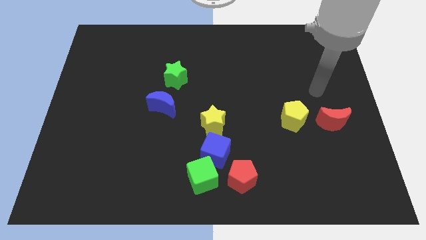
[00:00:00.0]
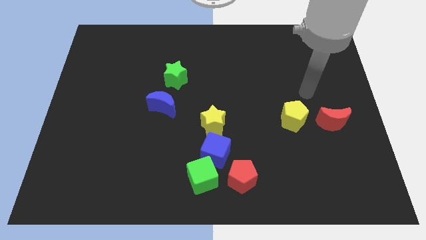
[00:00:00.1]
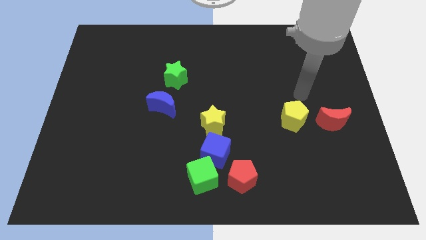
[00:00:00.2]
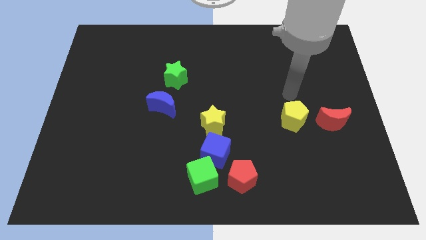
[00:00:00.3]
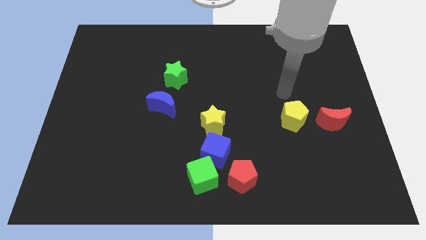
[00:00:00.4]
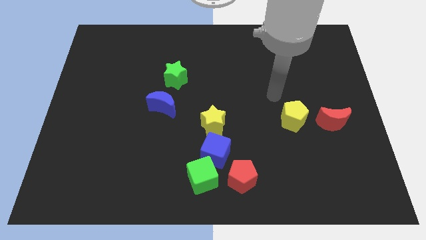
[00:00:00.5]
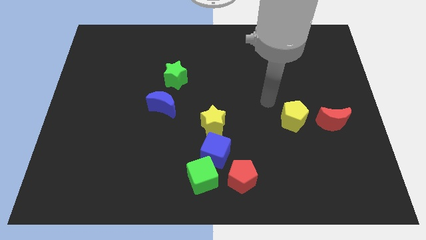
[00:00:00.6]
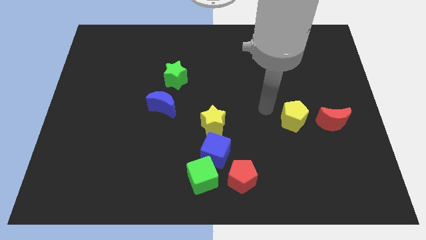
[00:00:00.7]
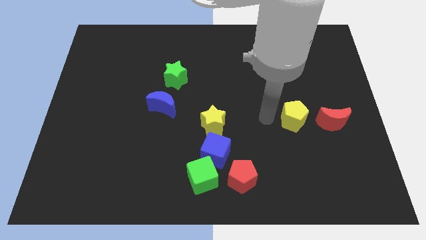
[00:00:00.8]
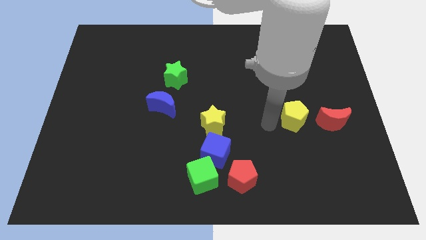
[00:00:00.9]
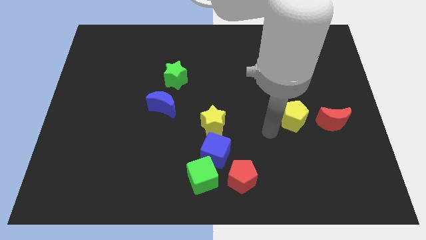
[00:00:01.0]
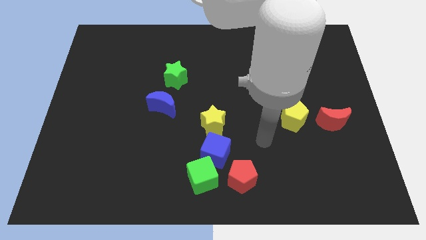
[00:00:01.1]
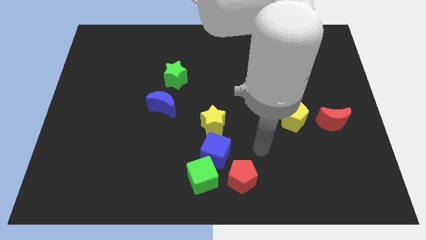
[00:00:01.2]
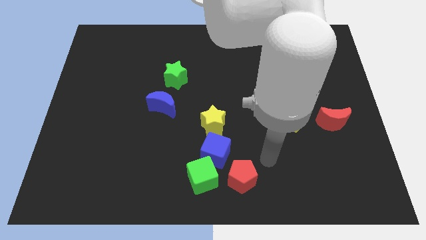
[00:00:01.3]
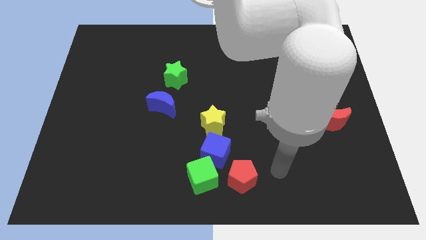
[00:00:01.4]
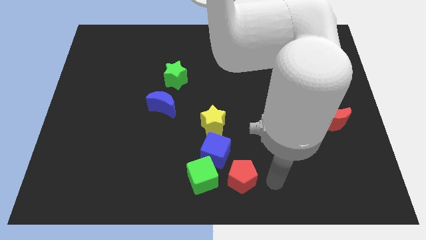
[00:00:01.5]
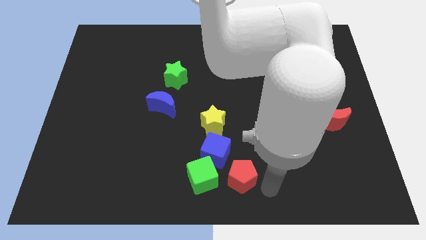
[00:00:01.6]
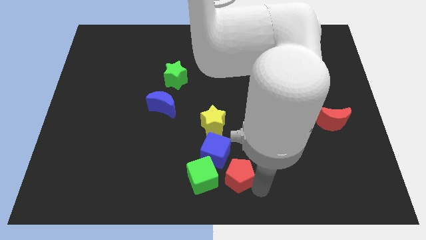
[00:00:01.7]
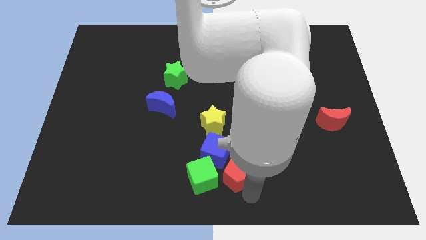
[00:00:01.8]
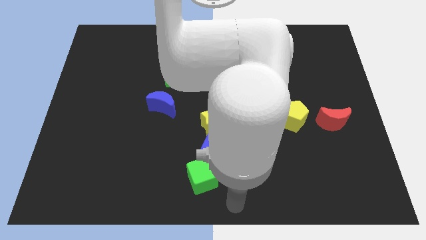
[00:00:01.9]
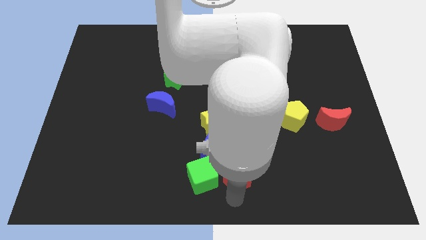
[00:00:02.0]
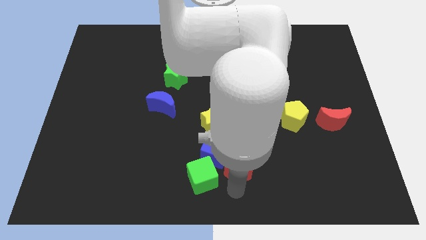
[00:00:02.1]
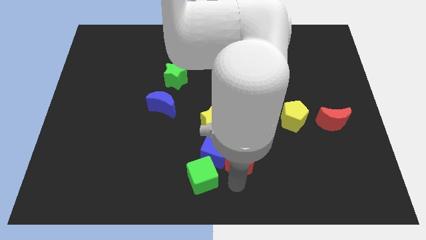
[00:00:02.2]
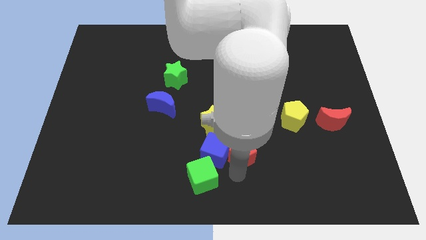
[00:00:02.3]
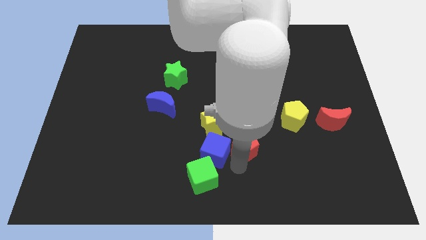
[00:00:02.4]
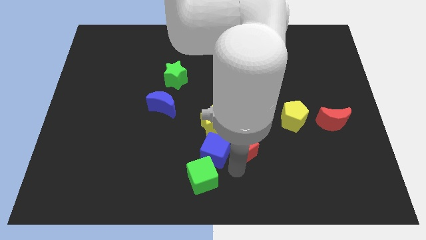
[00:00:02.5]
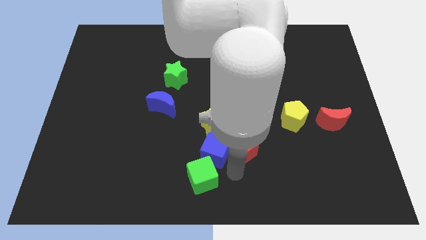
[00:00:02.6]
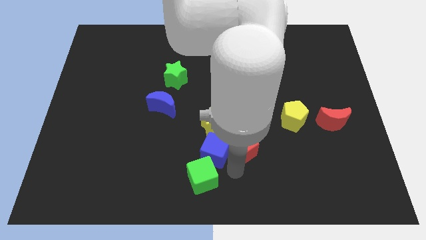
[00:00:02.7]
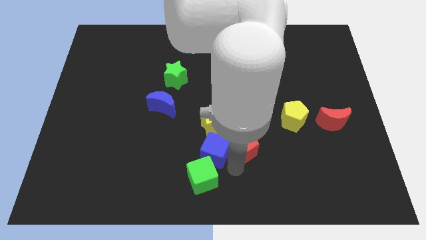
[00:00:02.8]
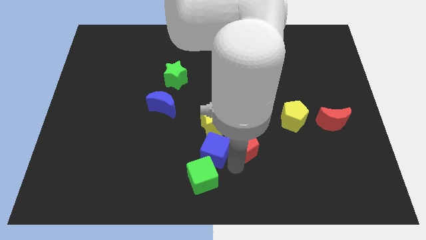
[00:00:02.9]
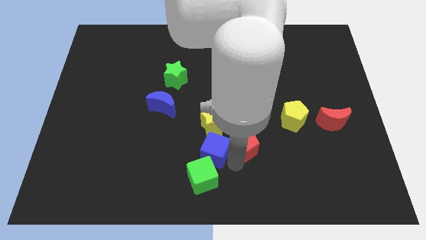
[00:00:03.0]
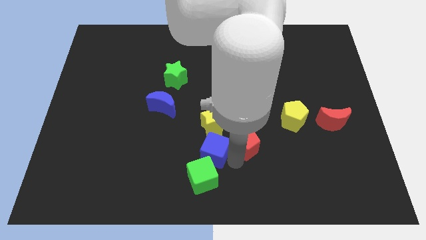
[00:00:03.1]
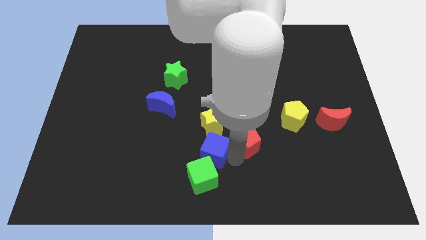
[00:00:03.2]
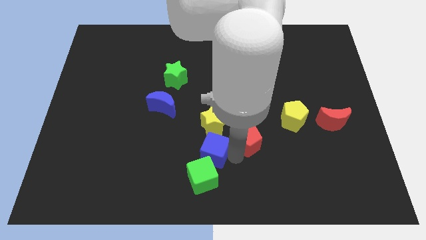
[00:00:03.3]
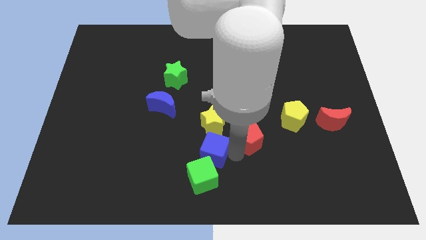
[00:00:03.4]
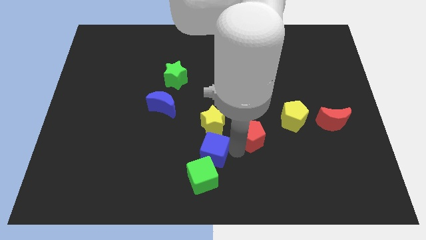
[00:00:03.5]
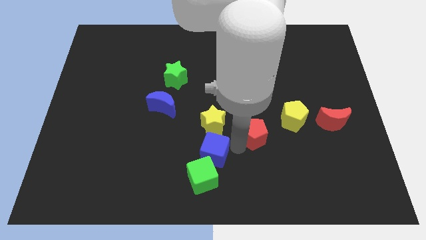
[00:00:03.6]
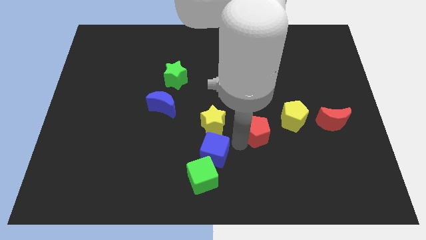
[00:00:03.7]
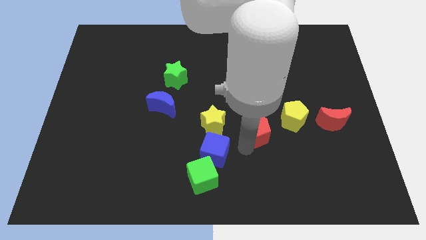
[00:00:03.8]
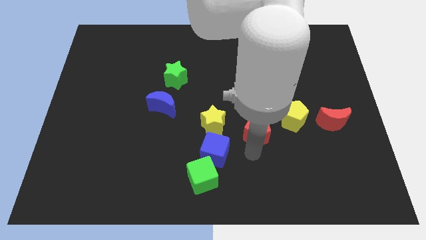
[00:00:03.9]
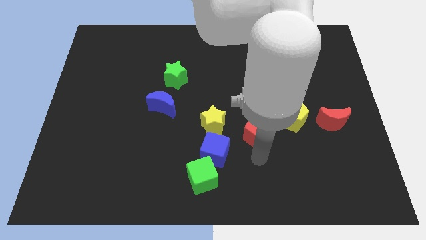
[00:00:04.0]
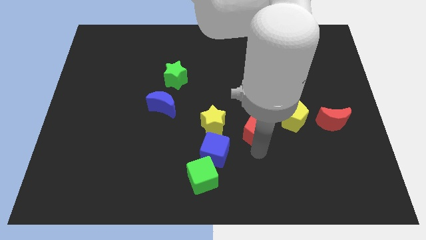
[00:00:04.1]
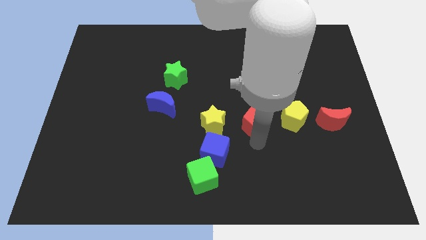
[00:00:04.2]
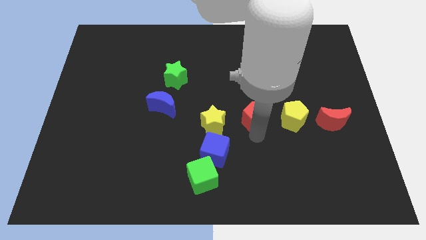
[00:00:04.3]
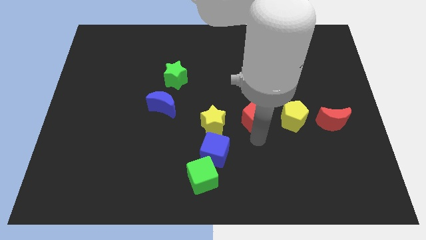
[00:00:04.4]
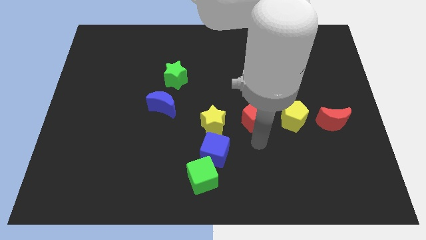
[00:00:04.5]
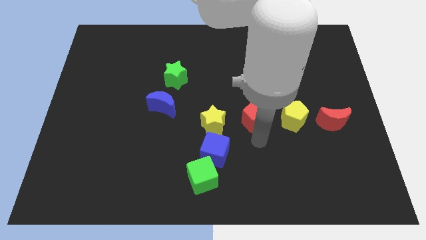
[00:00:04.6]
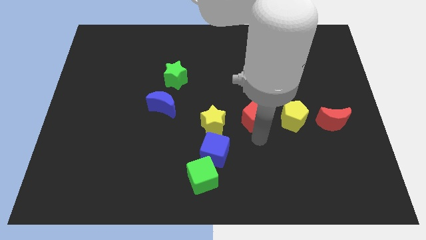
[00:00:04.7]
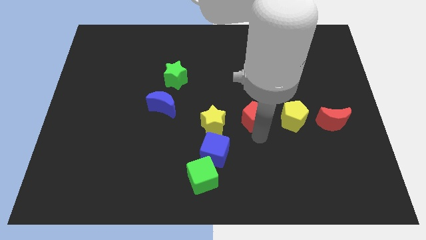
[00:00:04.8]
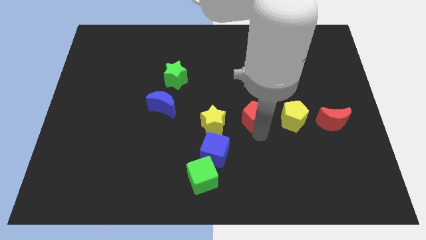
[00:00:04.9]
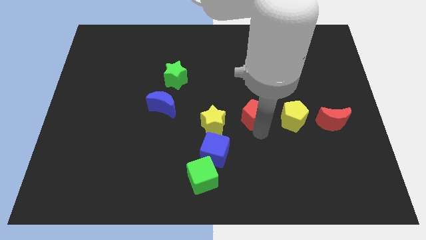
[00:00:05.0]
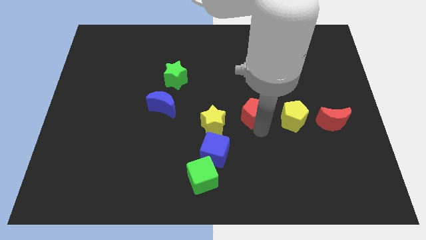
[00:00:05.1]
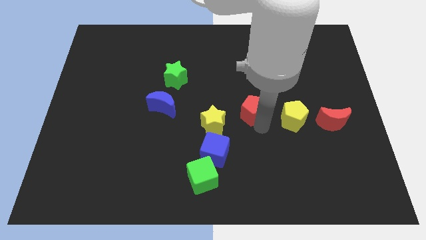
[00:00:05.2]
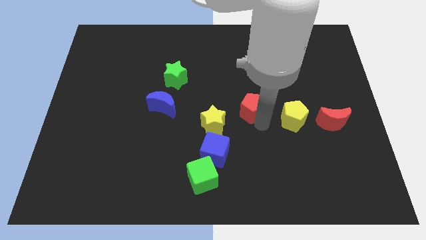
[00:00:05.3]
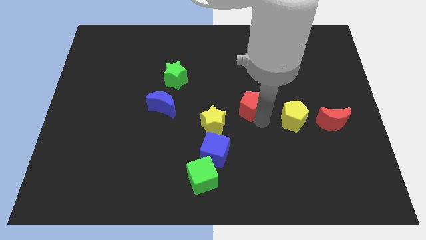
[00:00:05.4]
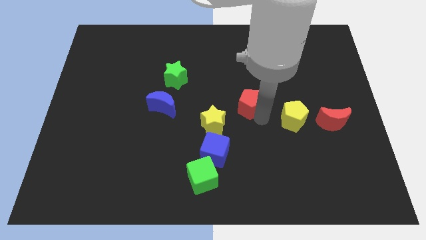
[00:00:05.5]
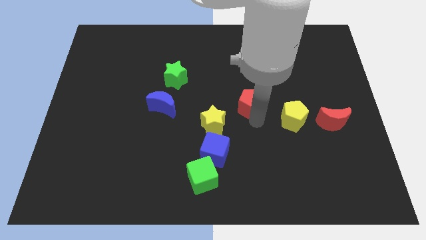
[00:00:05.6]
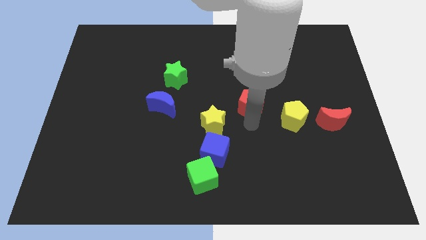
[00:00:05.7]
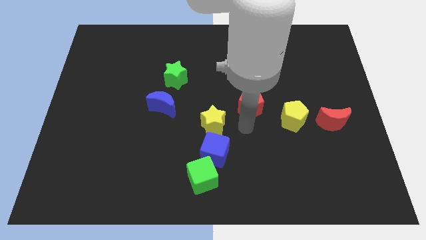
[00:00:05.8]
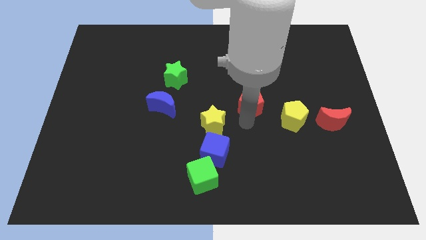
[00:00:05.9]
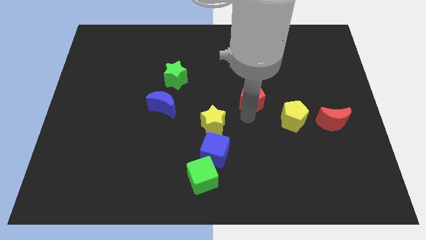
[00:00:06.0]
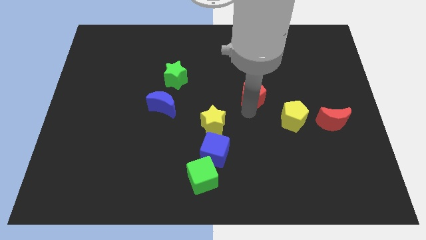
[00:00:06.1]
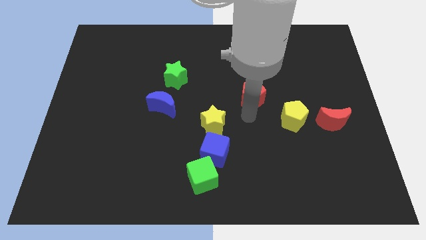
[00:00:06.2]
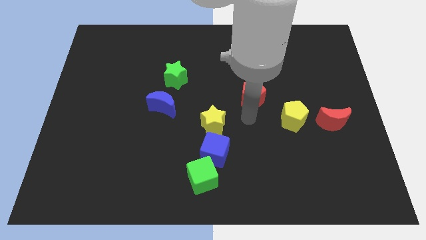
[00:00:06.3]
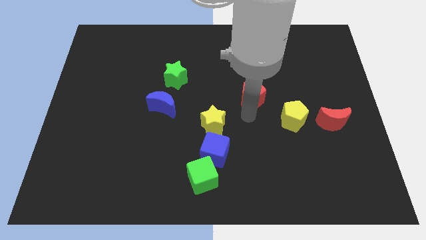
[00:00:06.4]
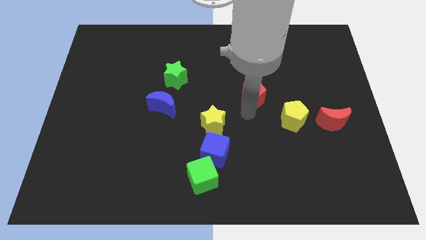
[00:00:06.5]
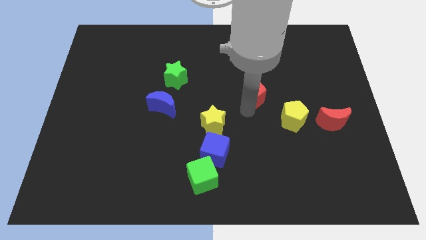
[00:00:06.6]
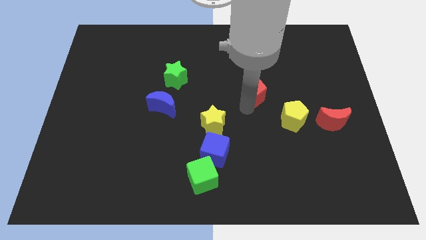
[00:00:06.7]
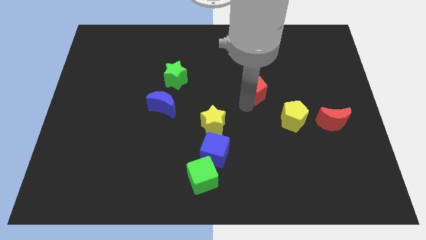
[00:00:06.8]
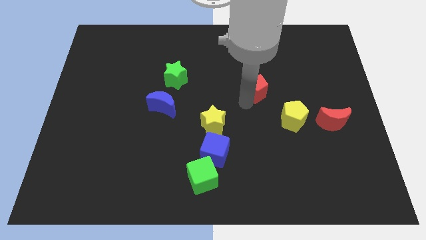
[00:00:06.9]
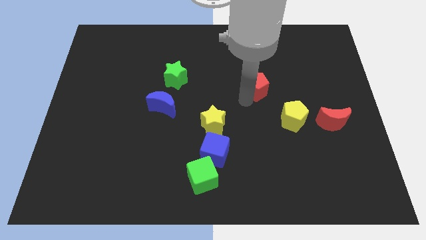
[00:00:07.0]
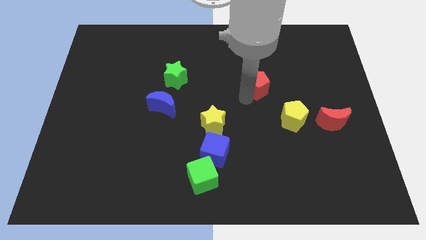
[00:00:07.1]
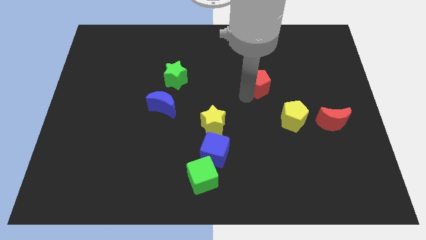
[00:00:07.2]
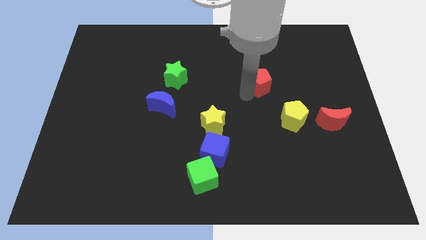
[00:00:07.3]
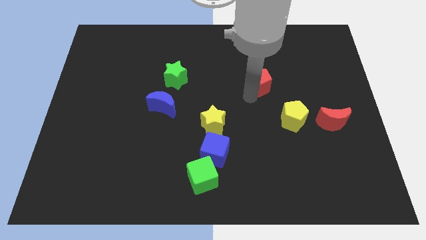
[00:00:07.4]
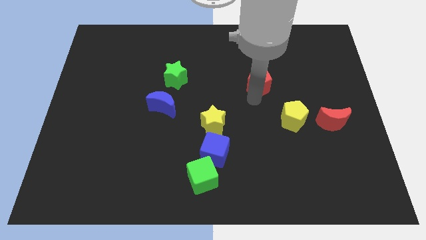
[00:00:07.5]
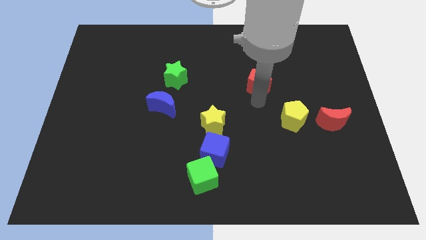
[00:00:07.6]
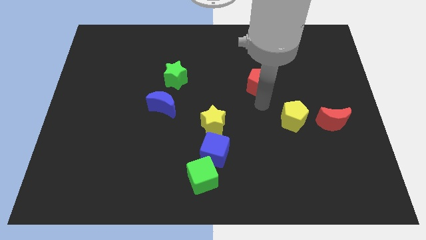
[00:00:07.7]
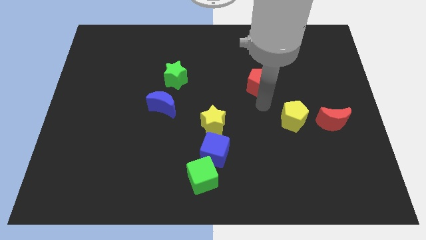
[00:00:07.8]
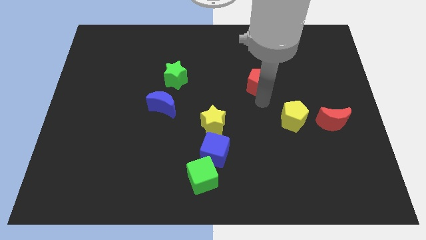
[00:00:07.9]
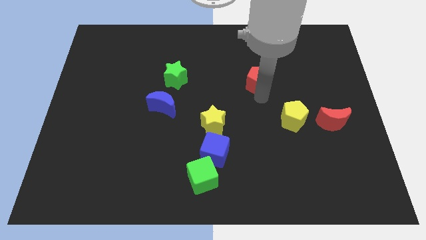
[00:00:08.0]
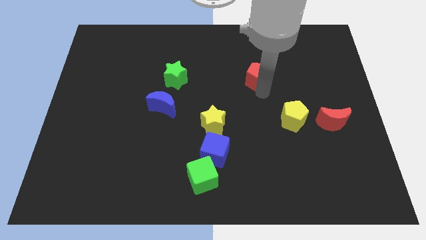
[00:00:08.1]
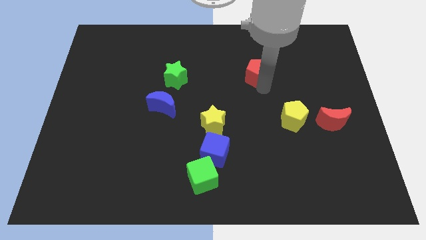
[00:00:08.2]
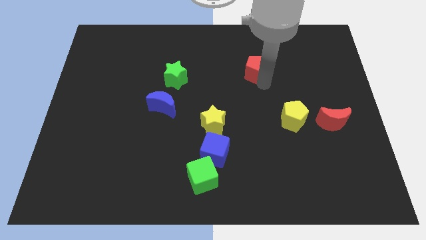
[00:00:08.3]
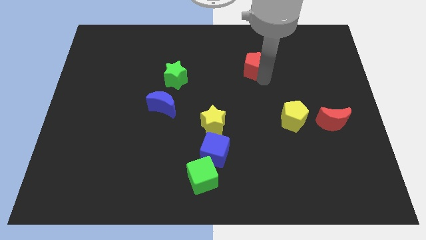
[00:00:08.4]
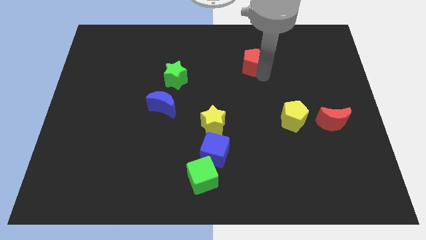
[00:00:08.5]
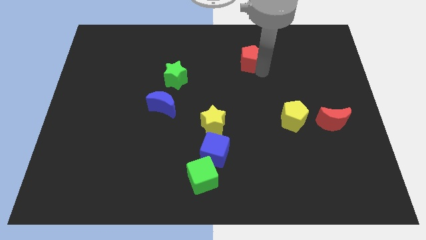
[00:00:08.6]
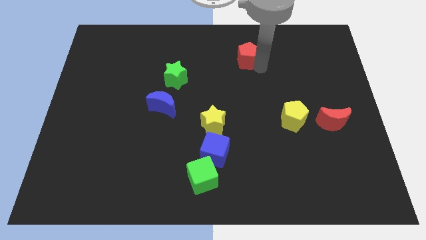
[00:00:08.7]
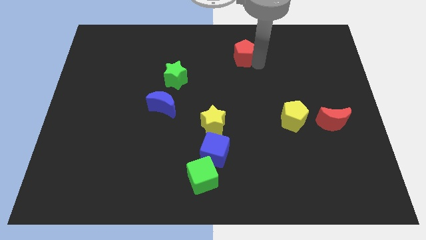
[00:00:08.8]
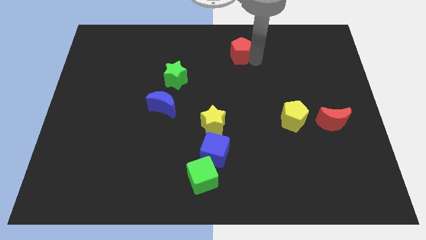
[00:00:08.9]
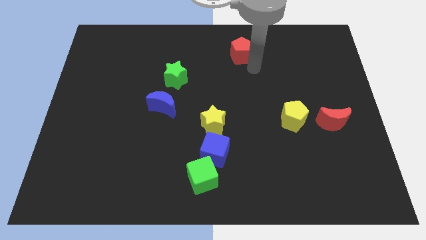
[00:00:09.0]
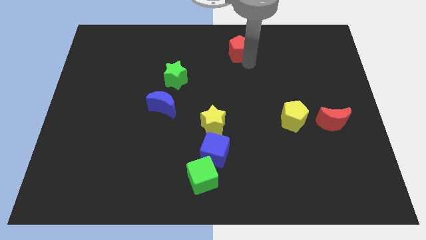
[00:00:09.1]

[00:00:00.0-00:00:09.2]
put the red pentagon to the top
